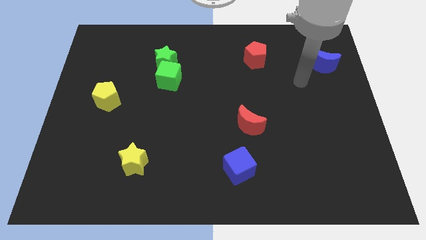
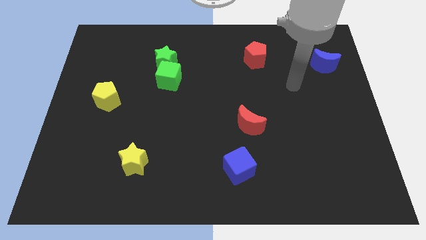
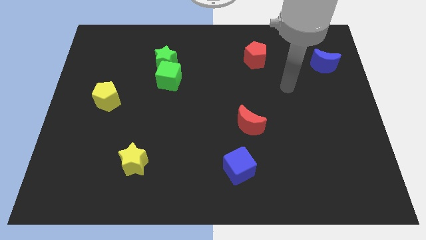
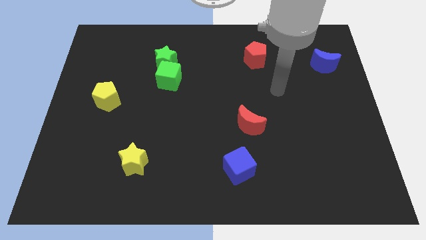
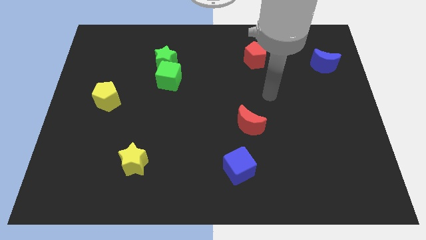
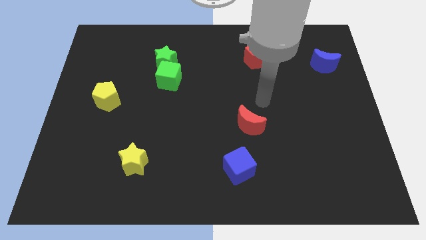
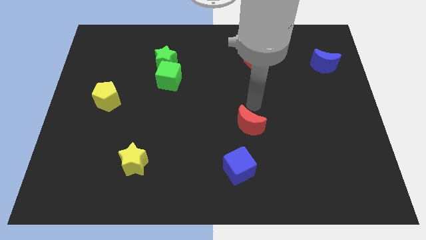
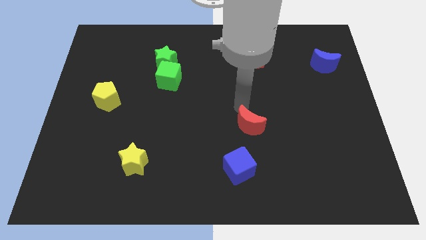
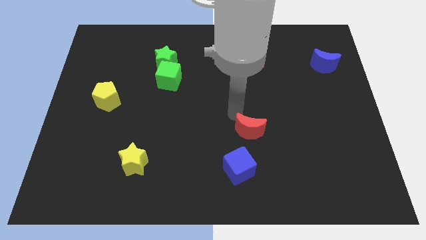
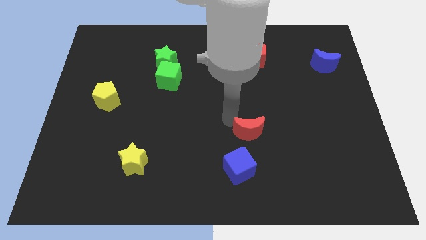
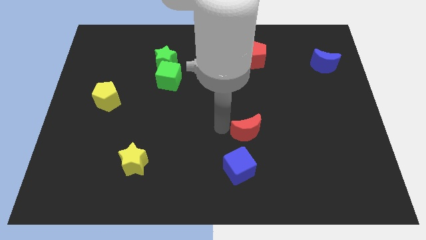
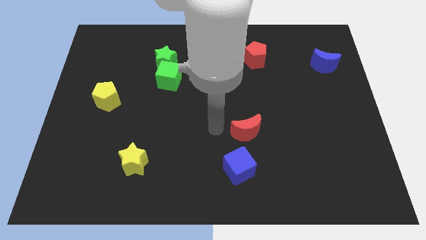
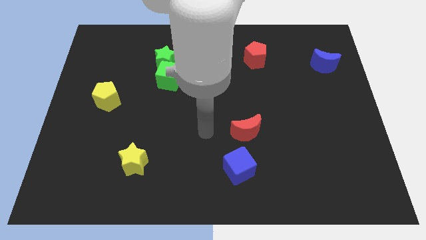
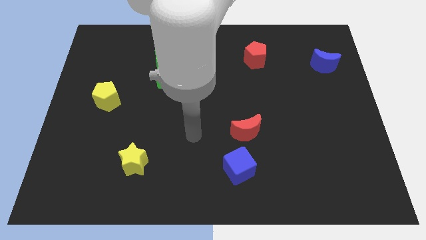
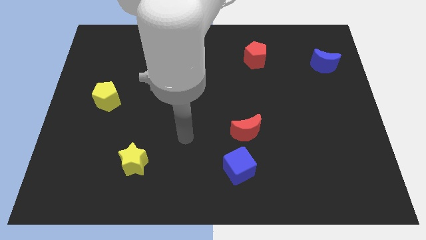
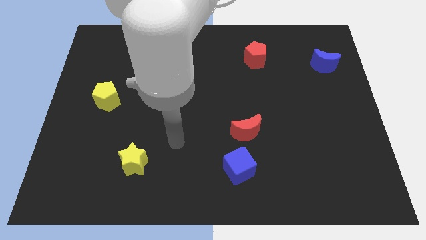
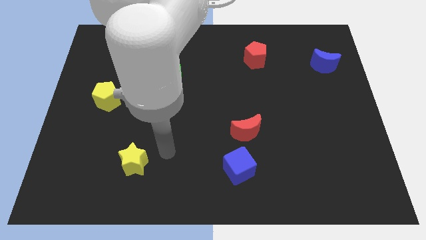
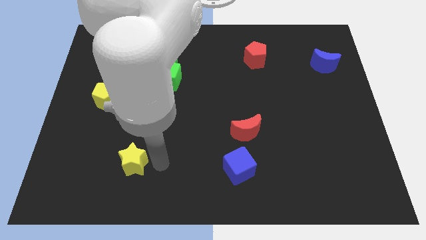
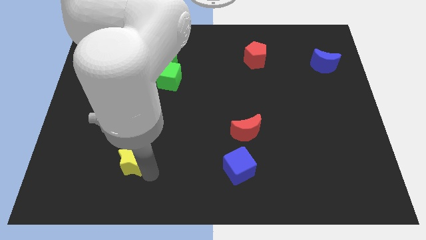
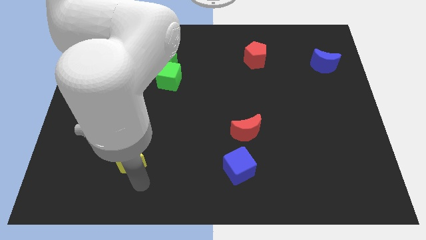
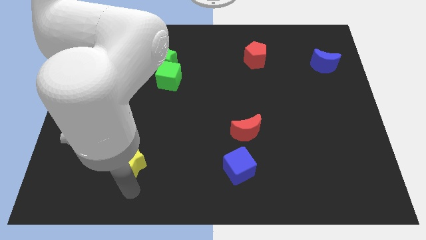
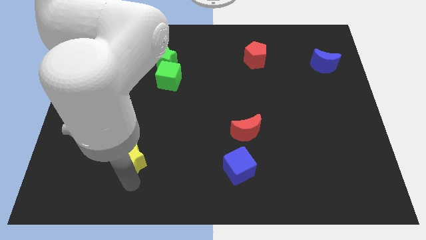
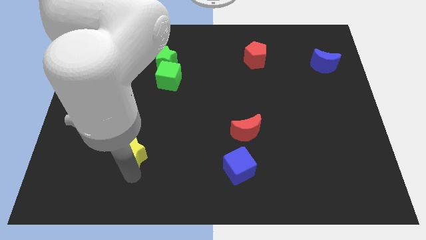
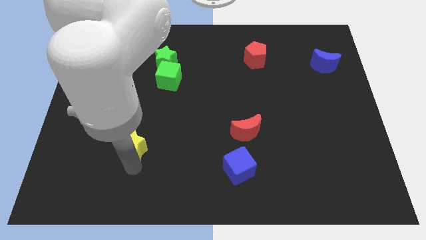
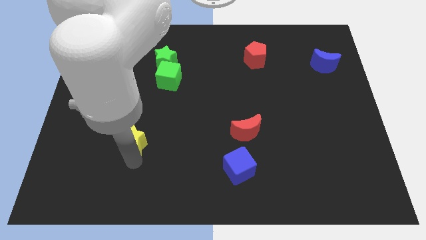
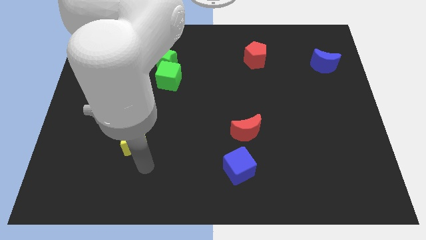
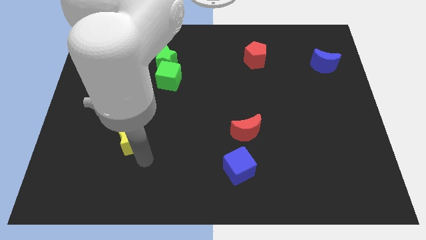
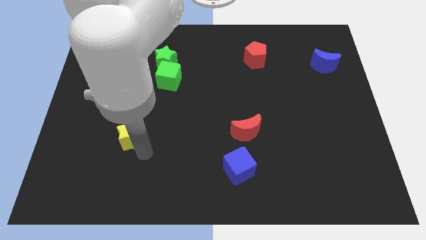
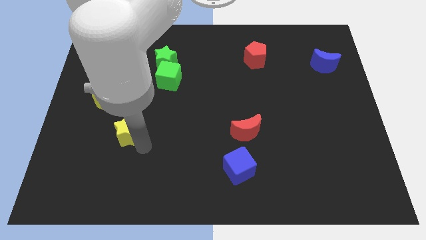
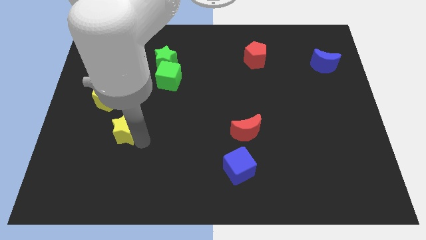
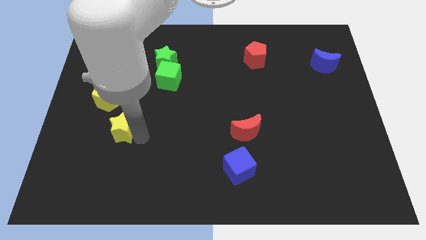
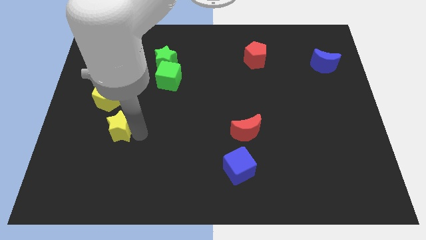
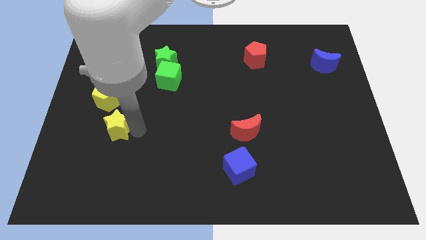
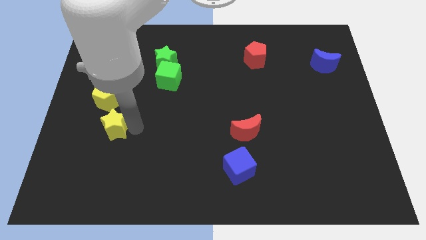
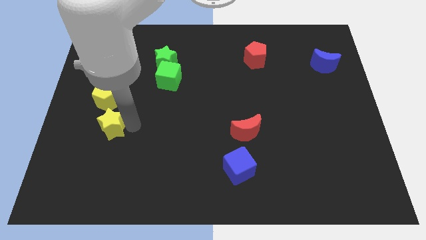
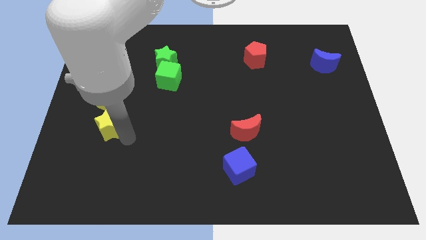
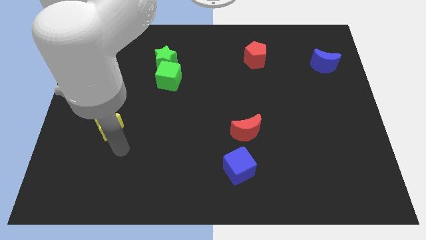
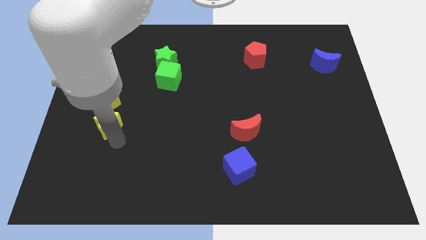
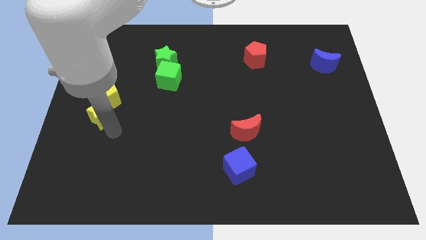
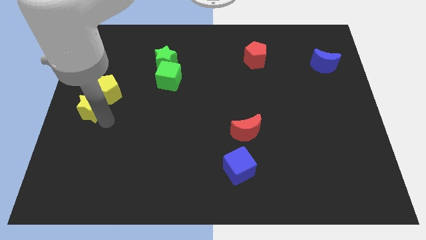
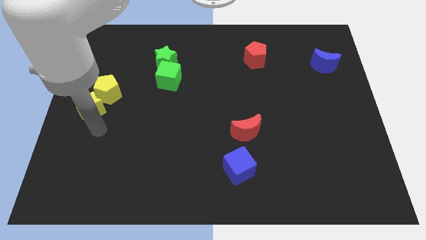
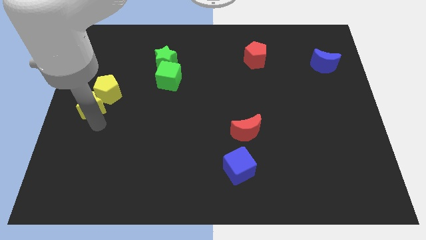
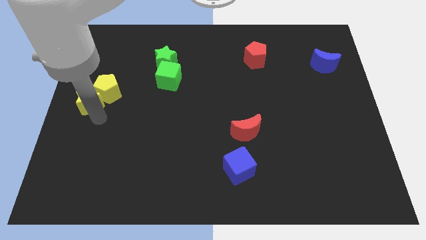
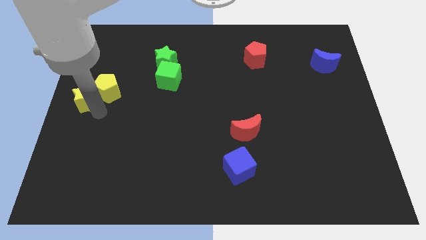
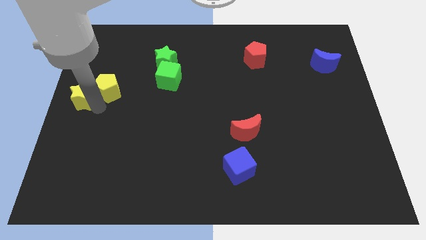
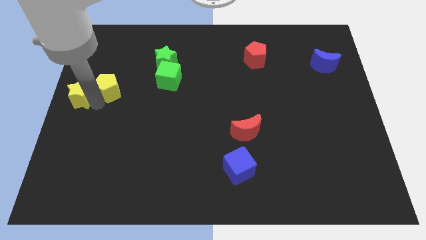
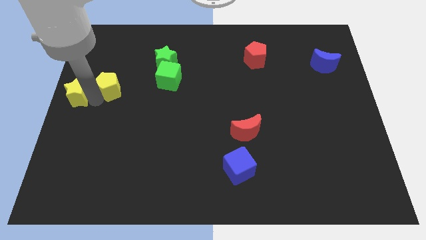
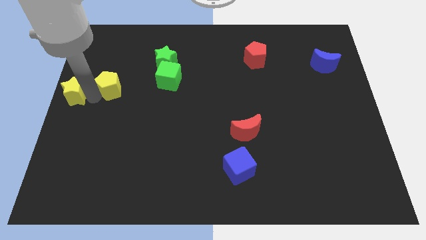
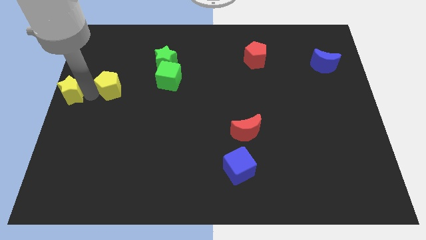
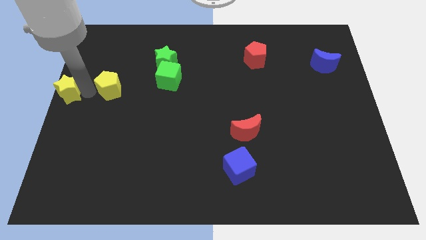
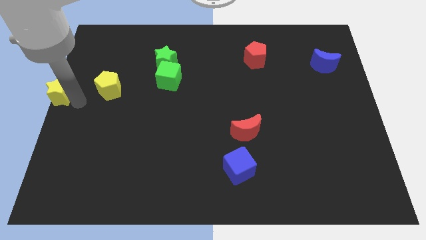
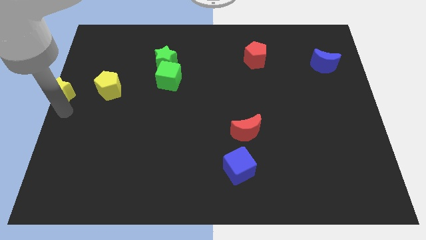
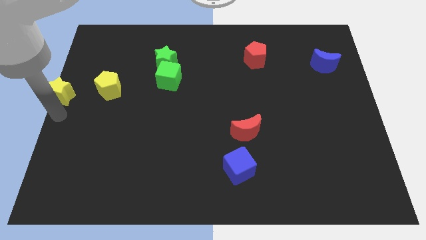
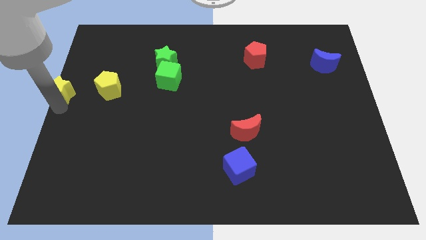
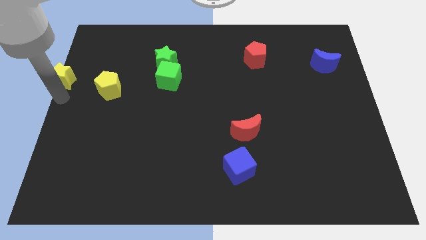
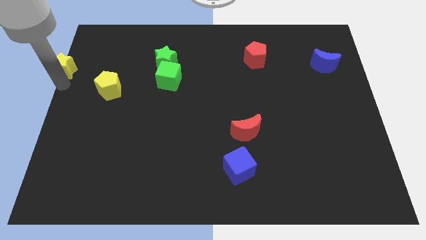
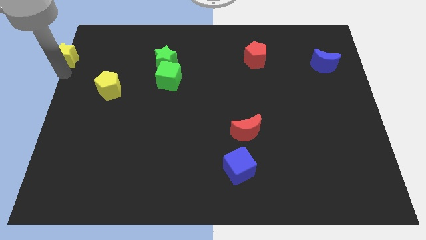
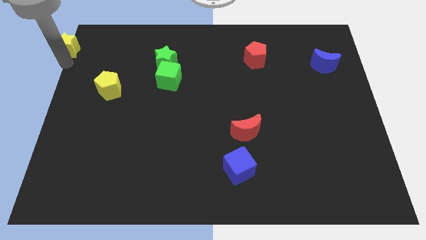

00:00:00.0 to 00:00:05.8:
move the yellow star to the top left

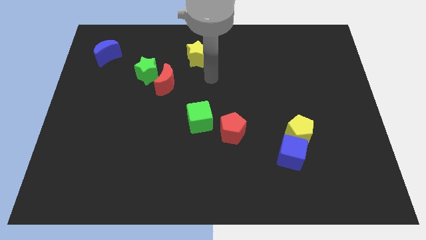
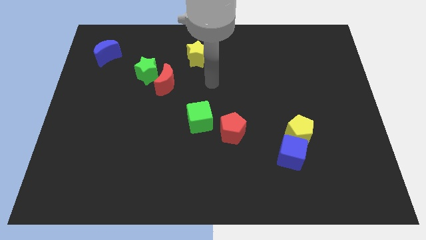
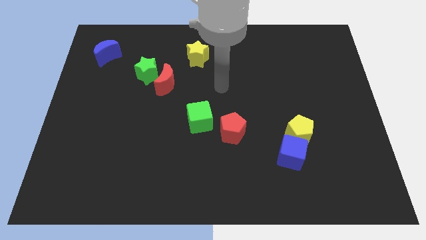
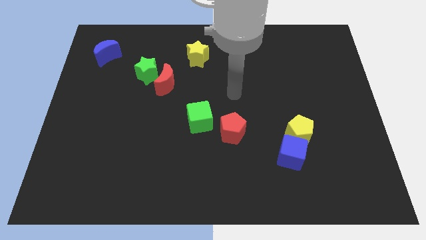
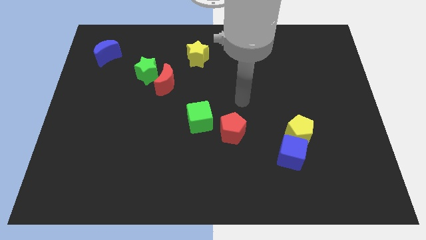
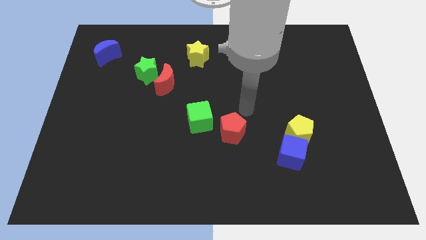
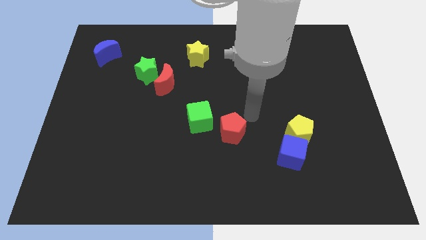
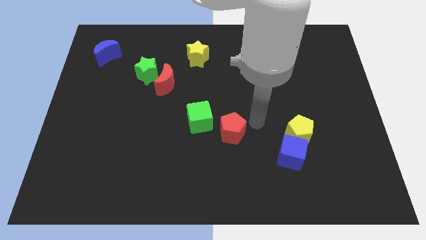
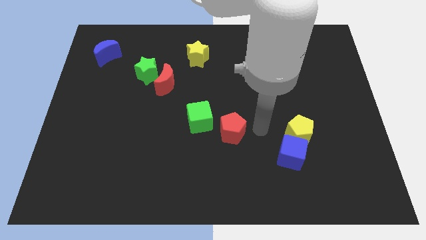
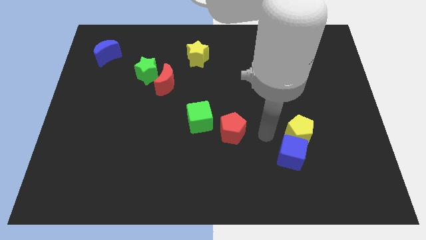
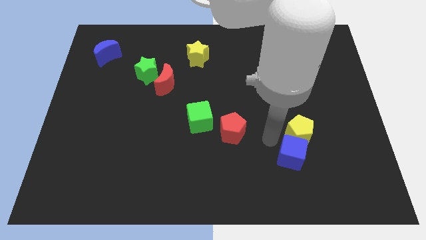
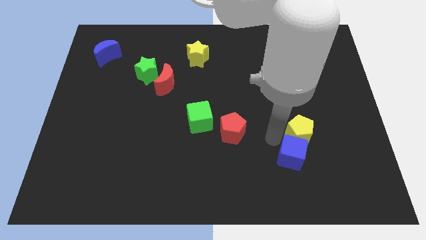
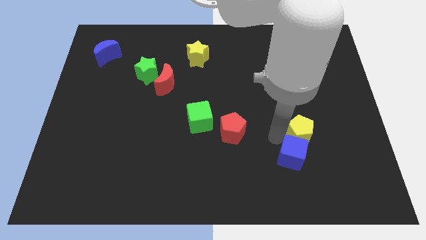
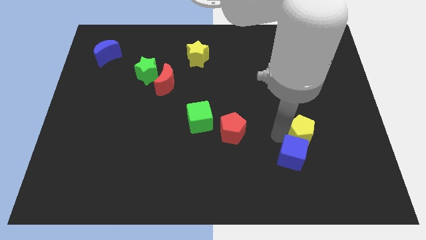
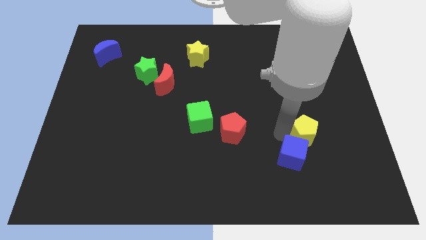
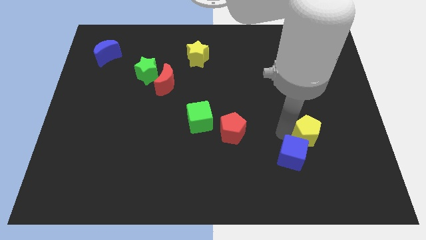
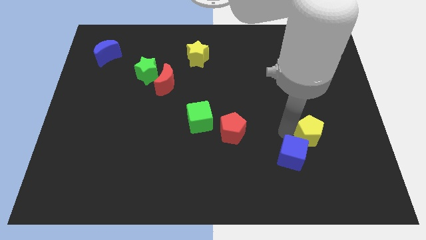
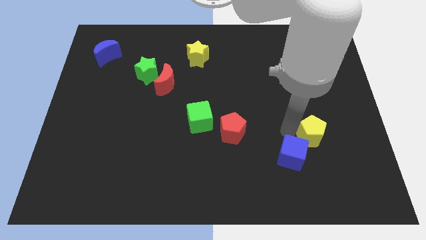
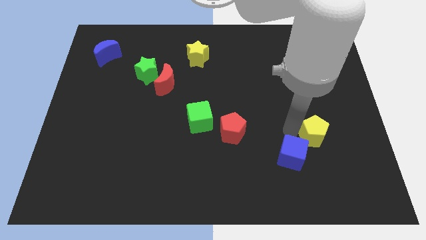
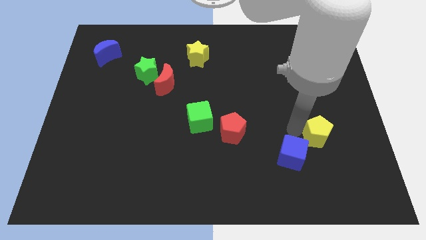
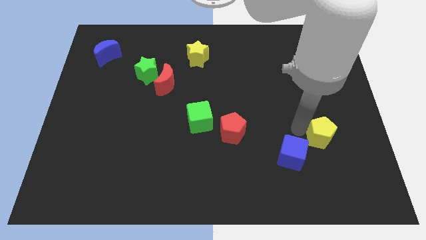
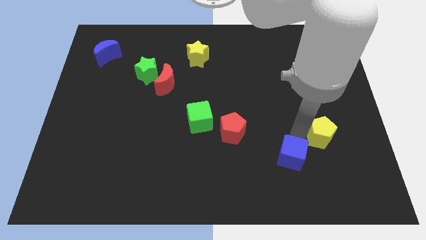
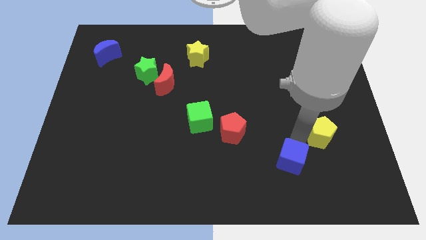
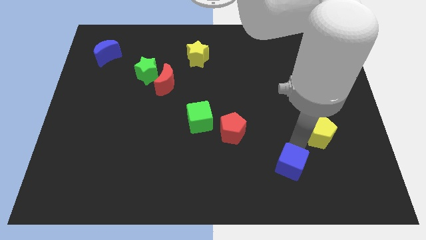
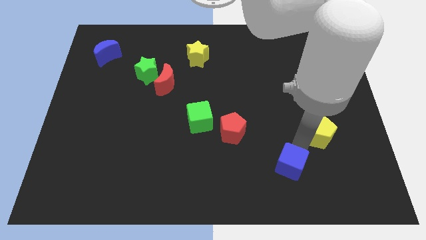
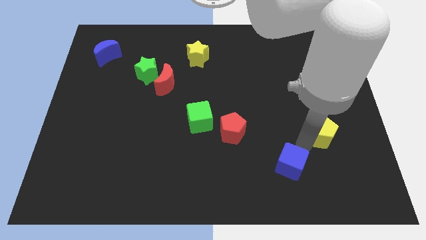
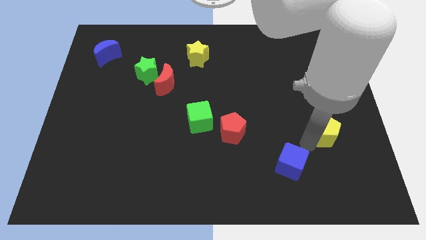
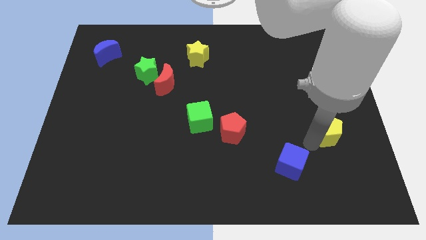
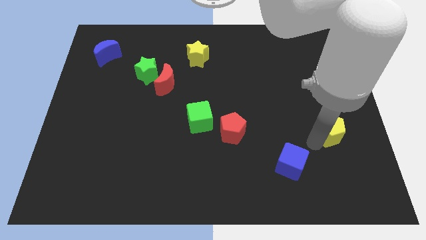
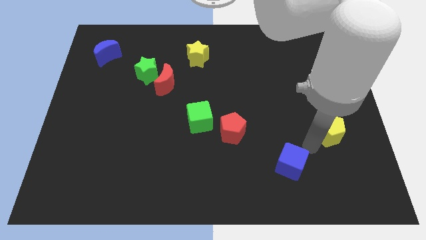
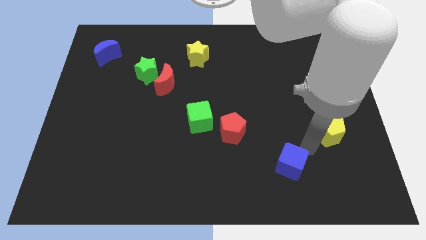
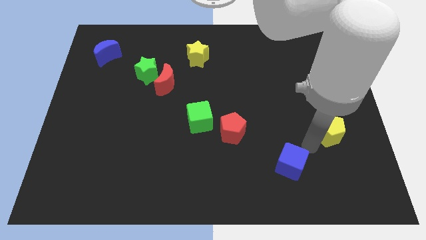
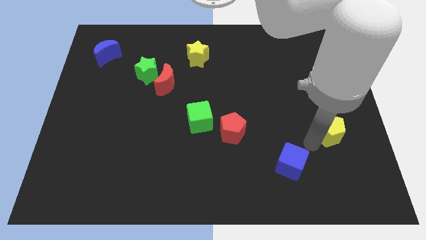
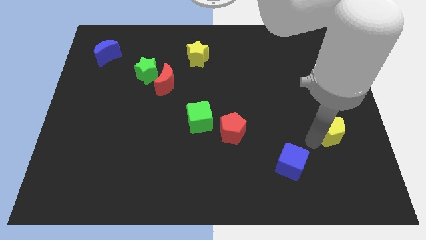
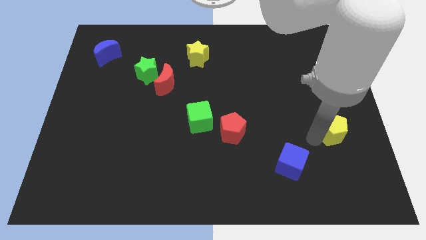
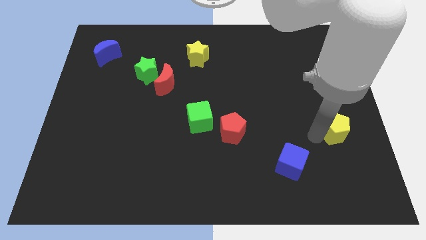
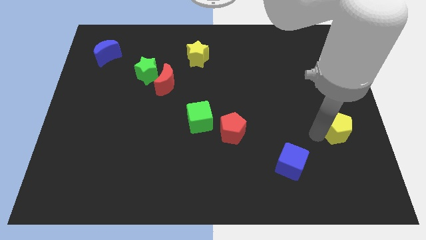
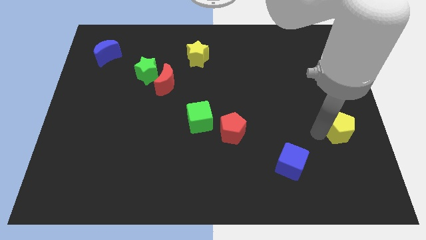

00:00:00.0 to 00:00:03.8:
put the yellow pentagon to the right side
